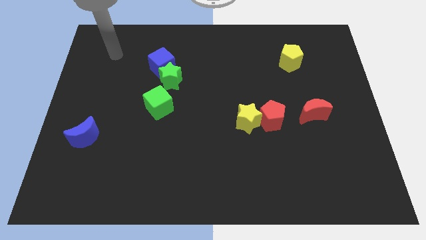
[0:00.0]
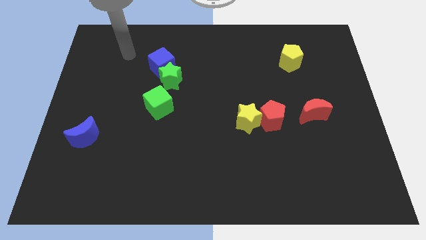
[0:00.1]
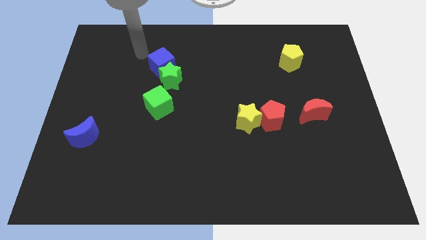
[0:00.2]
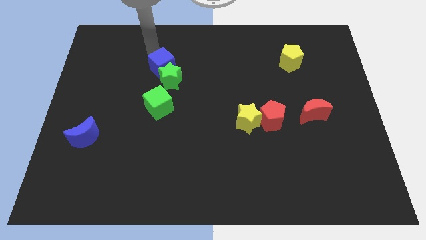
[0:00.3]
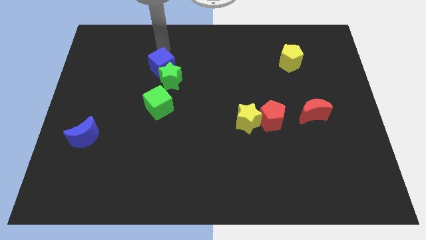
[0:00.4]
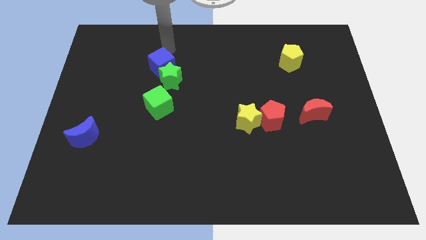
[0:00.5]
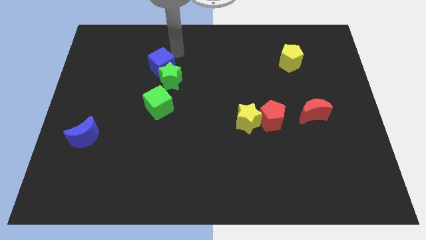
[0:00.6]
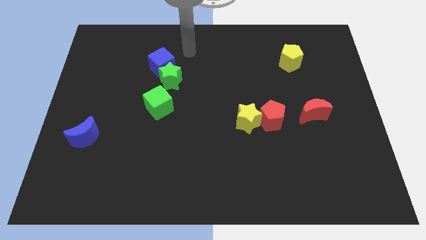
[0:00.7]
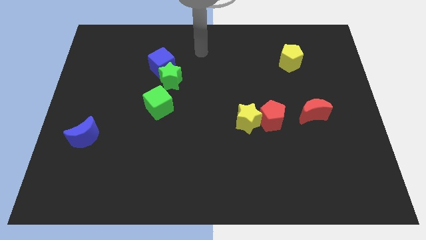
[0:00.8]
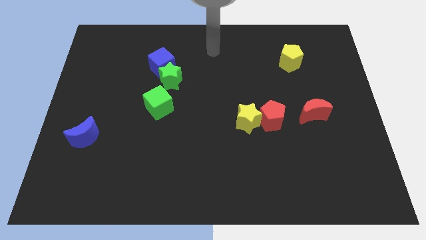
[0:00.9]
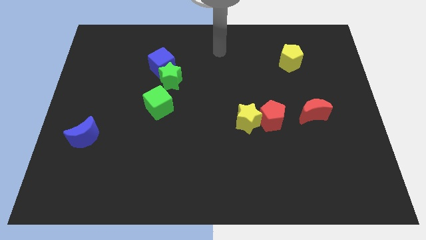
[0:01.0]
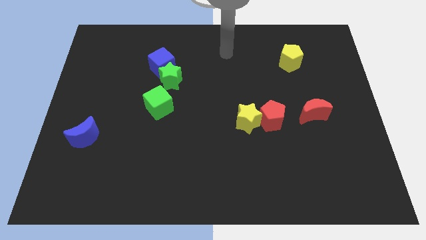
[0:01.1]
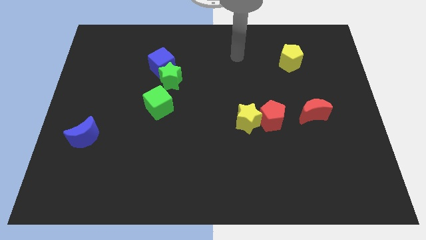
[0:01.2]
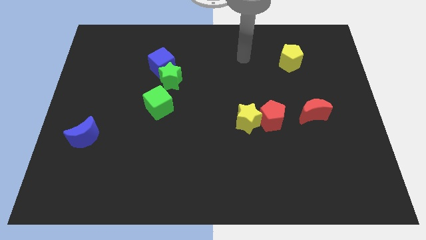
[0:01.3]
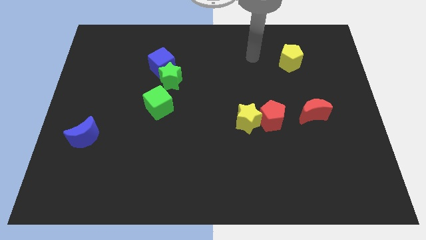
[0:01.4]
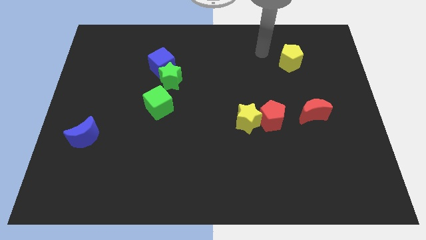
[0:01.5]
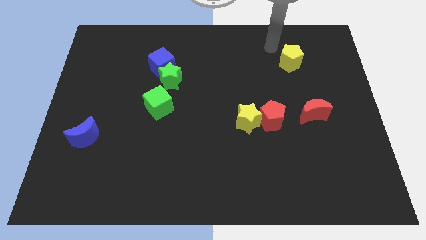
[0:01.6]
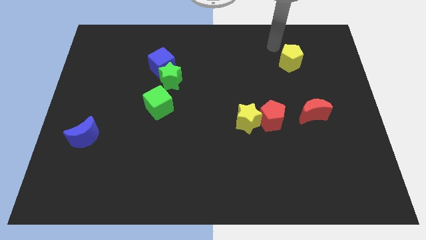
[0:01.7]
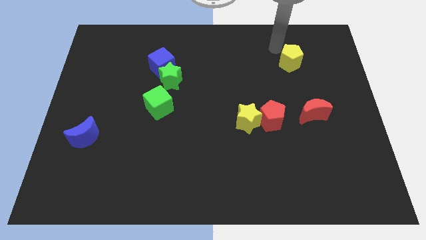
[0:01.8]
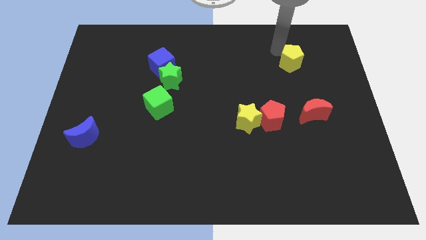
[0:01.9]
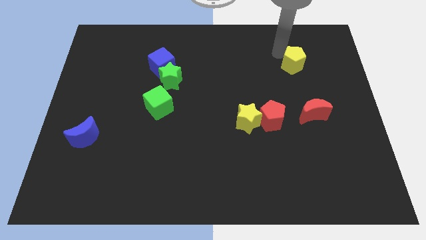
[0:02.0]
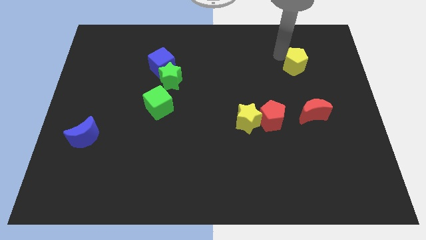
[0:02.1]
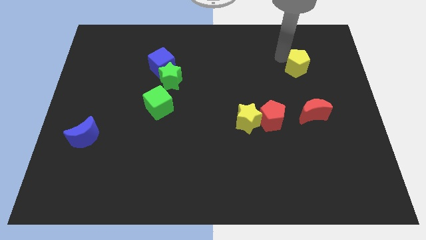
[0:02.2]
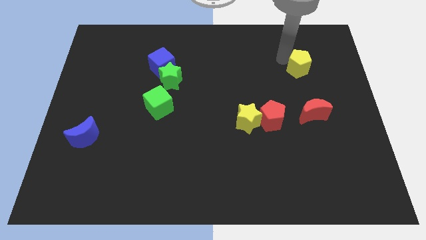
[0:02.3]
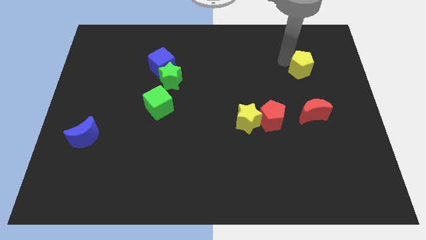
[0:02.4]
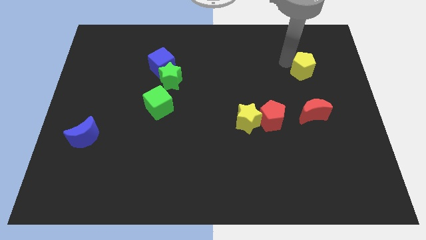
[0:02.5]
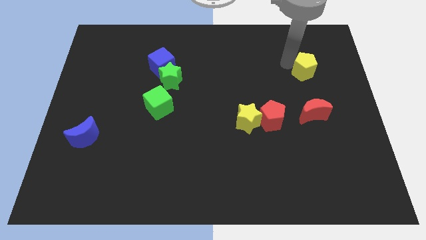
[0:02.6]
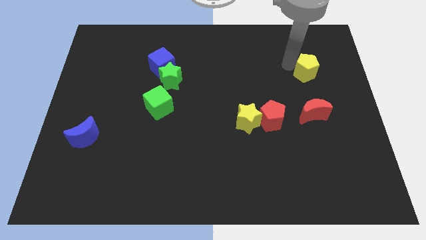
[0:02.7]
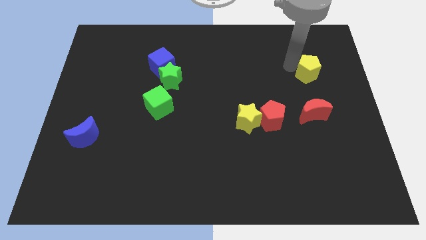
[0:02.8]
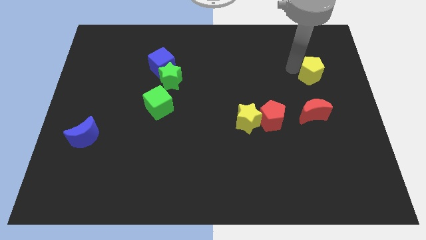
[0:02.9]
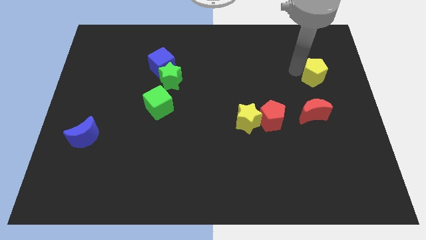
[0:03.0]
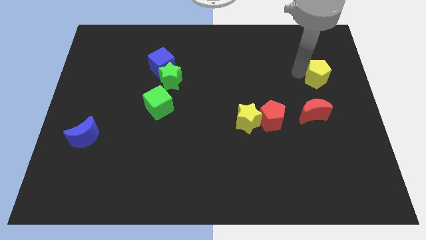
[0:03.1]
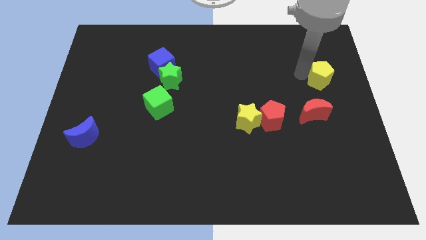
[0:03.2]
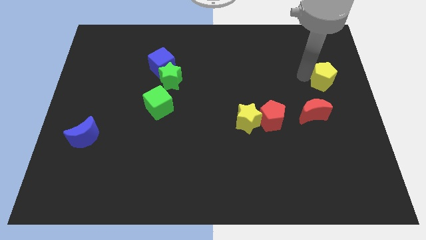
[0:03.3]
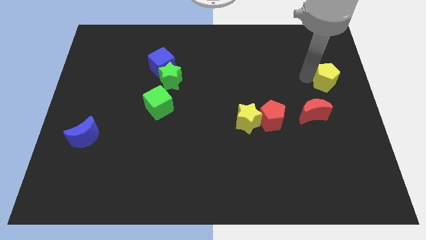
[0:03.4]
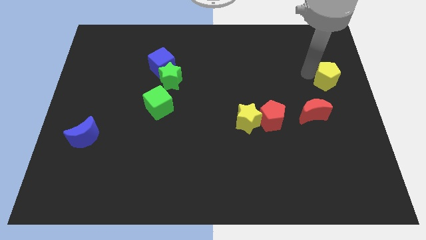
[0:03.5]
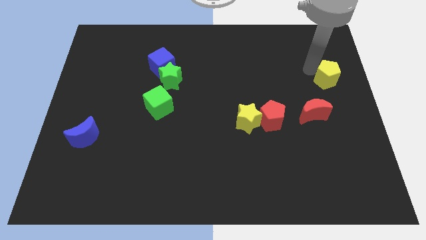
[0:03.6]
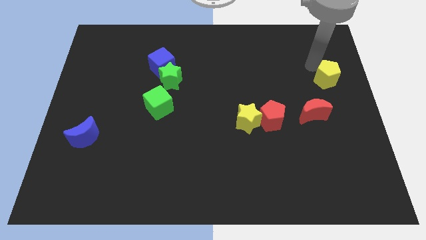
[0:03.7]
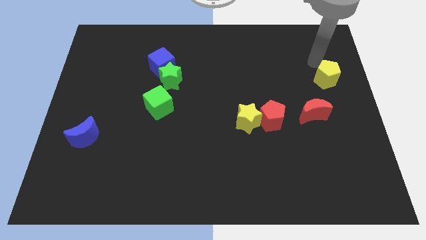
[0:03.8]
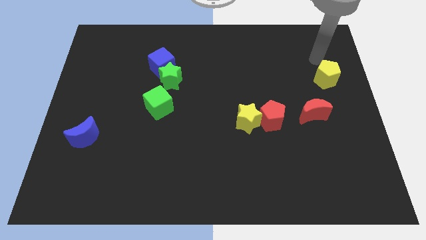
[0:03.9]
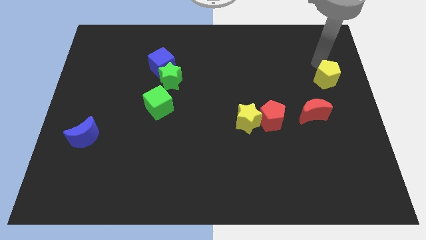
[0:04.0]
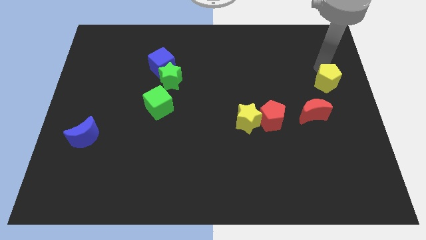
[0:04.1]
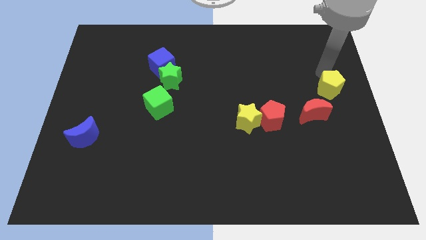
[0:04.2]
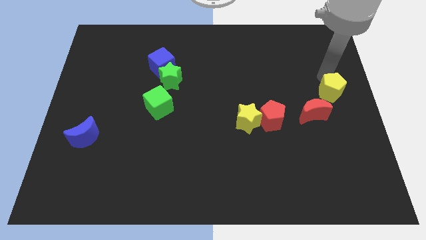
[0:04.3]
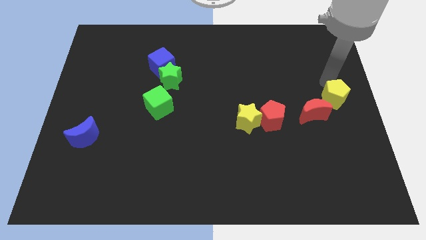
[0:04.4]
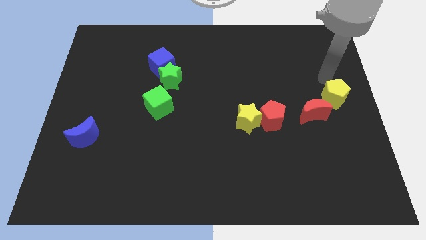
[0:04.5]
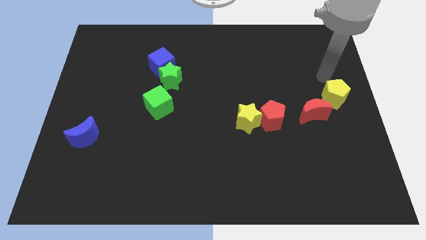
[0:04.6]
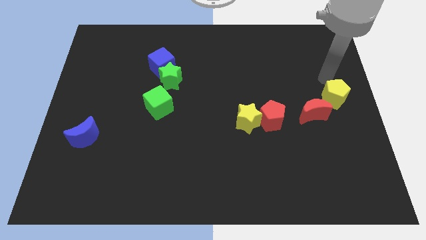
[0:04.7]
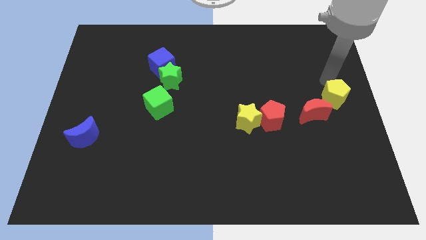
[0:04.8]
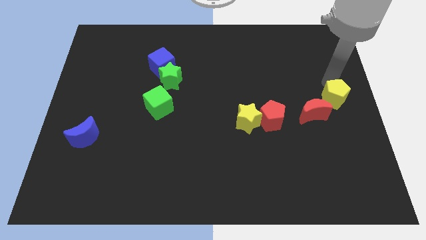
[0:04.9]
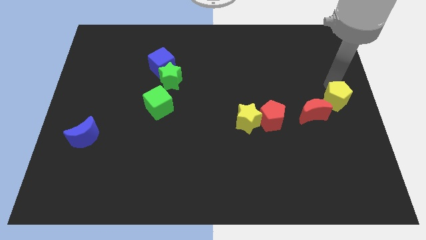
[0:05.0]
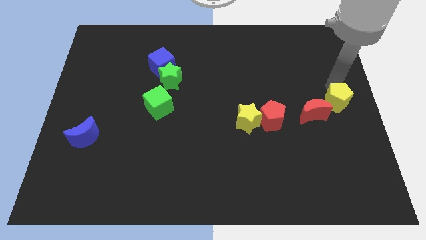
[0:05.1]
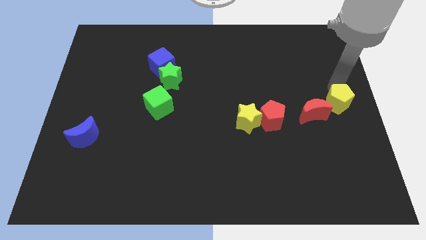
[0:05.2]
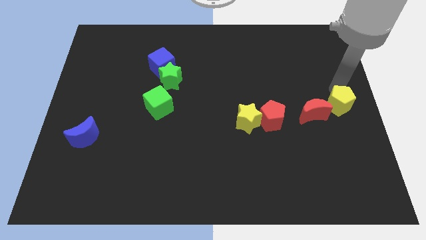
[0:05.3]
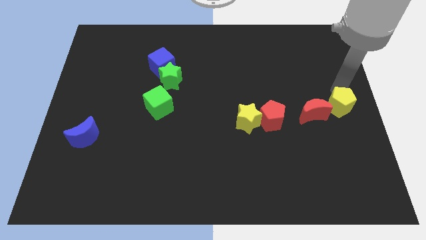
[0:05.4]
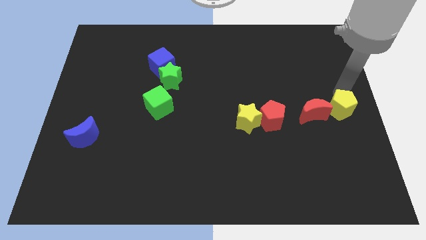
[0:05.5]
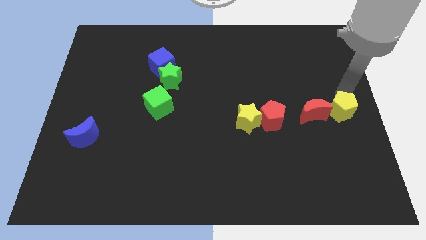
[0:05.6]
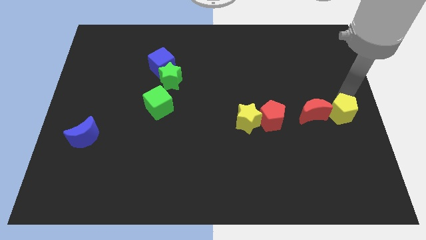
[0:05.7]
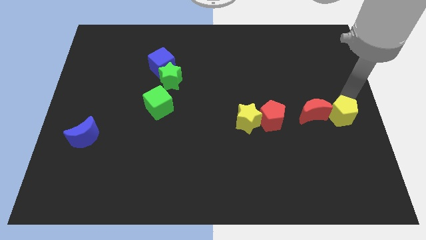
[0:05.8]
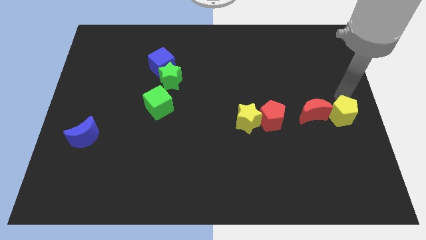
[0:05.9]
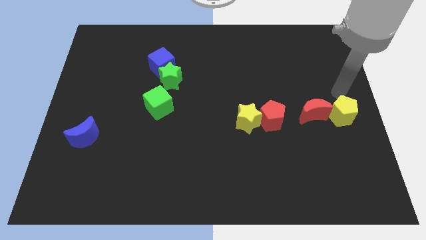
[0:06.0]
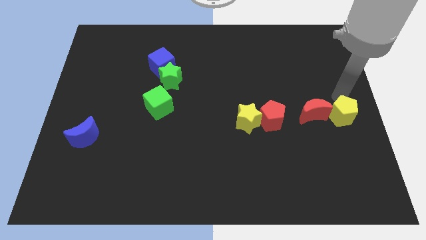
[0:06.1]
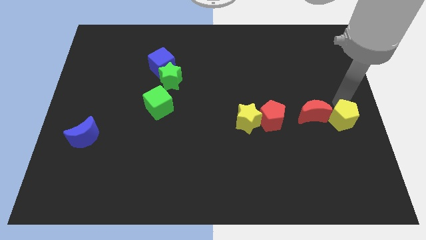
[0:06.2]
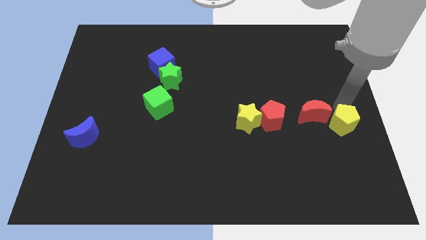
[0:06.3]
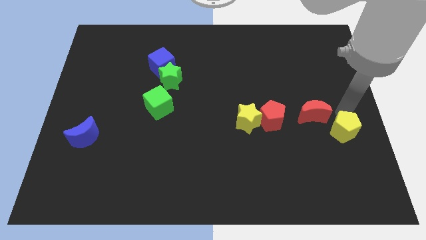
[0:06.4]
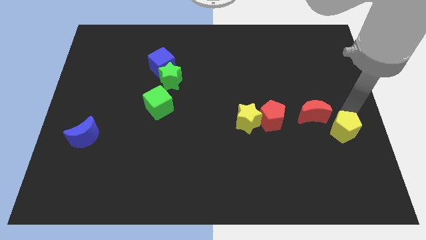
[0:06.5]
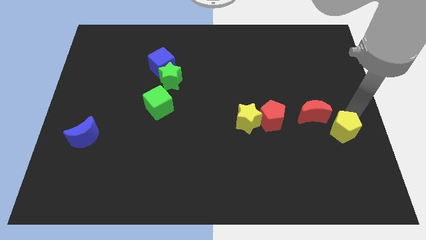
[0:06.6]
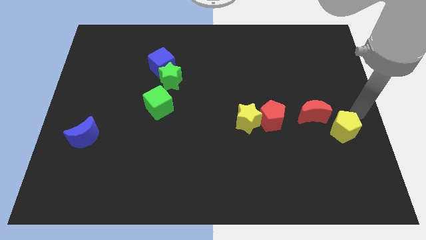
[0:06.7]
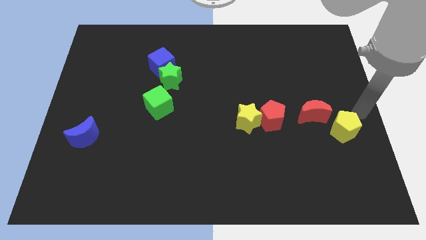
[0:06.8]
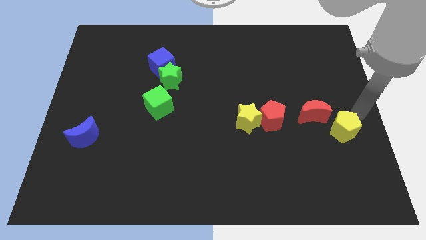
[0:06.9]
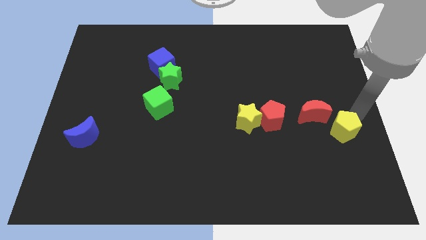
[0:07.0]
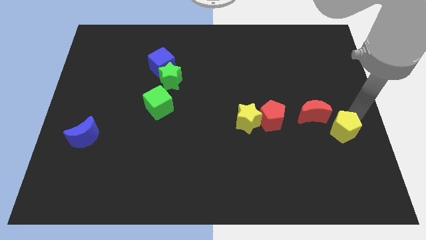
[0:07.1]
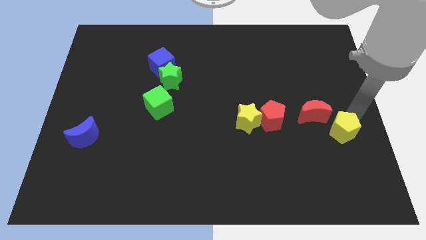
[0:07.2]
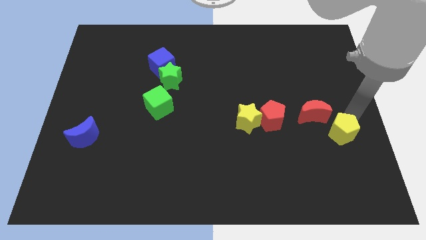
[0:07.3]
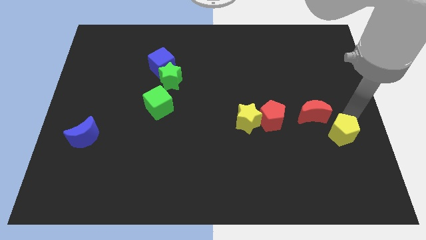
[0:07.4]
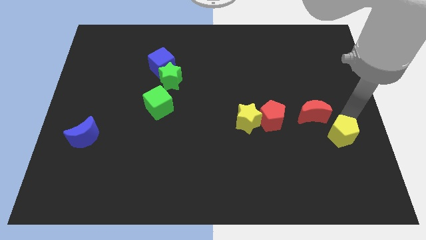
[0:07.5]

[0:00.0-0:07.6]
push the yellow pentagon down

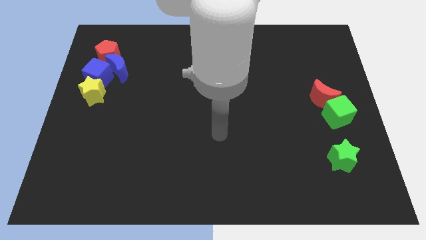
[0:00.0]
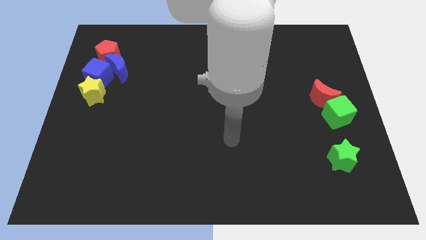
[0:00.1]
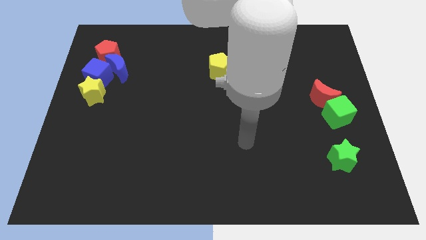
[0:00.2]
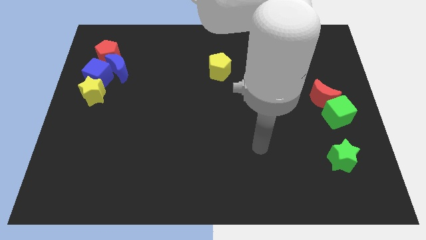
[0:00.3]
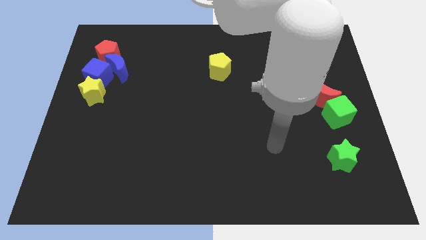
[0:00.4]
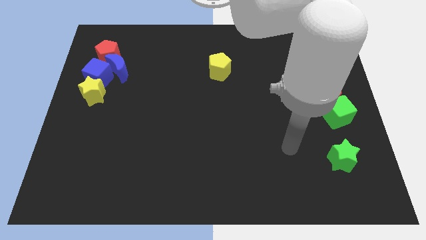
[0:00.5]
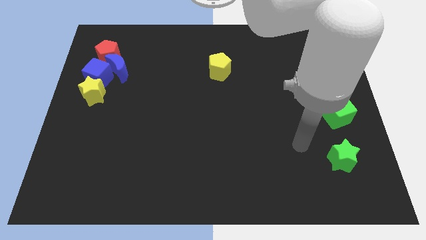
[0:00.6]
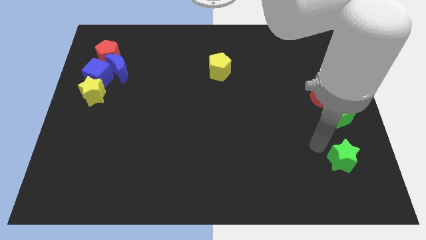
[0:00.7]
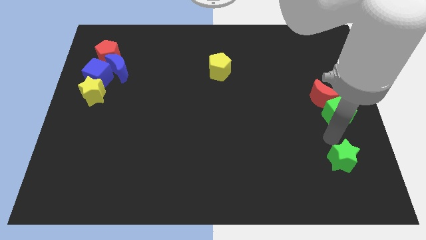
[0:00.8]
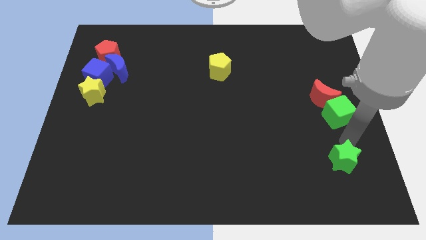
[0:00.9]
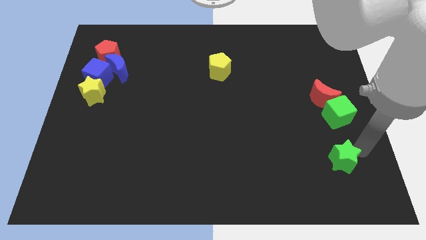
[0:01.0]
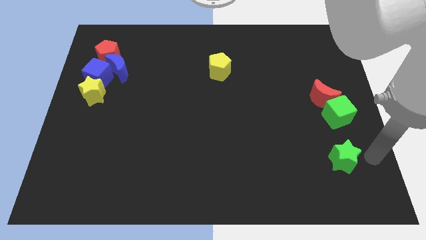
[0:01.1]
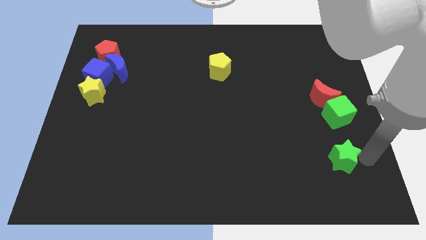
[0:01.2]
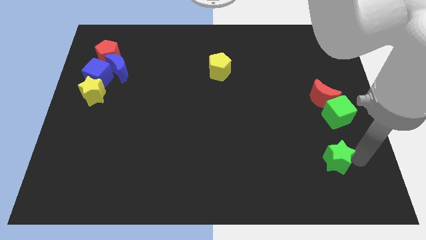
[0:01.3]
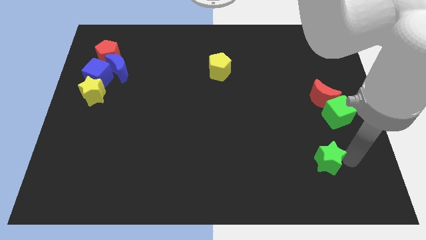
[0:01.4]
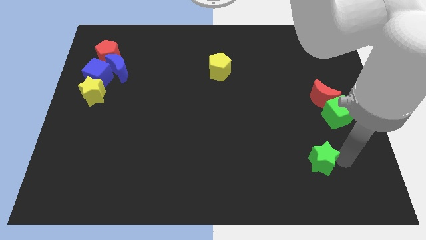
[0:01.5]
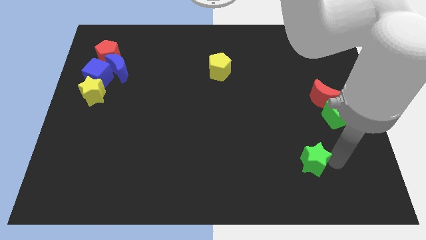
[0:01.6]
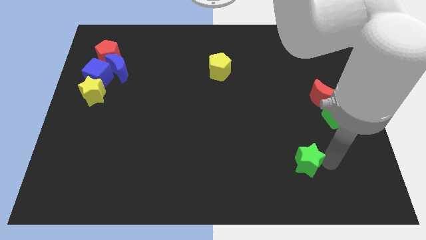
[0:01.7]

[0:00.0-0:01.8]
push the green star to the left slightly
